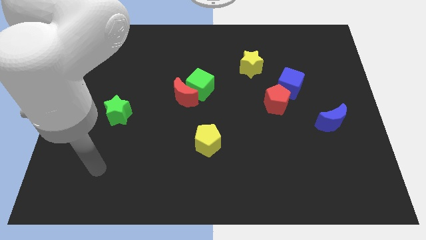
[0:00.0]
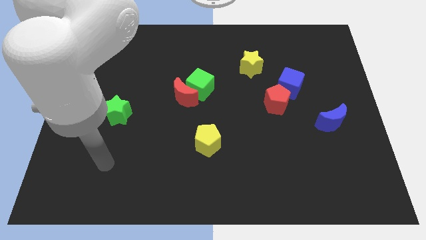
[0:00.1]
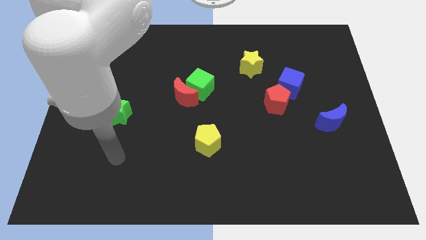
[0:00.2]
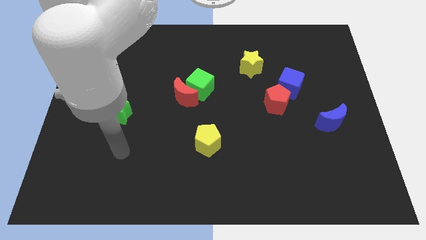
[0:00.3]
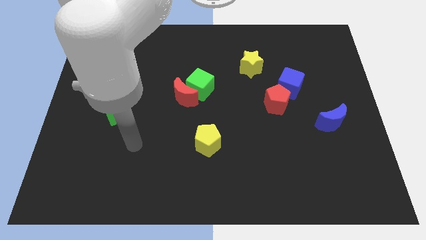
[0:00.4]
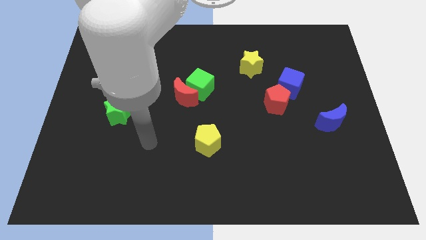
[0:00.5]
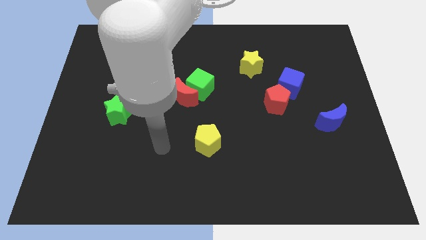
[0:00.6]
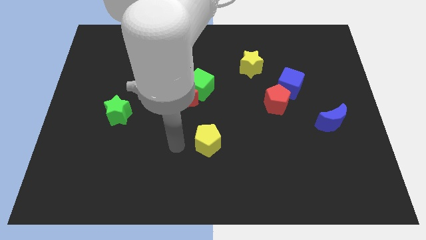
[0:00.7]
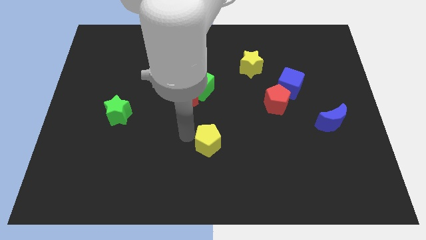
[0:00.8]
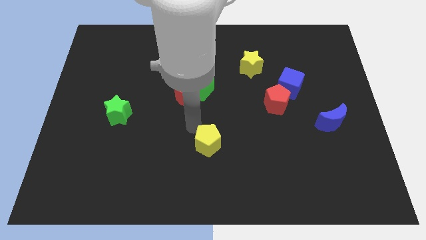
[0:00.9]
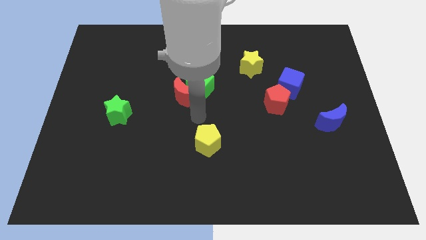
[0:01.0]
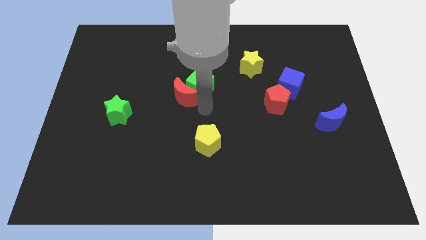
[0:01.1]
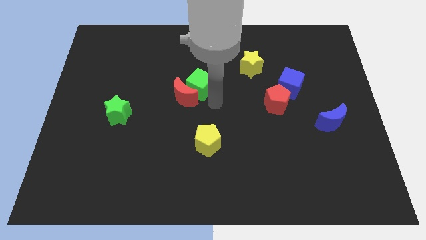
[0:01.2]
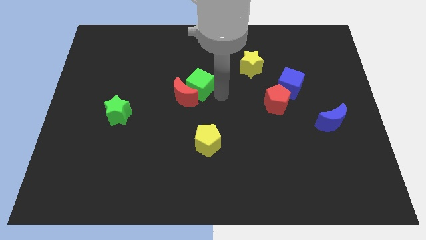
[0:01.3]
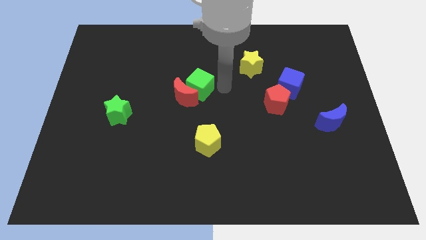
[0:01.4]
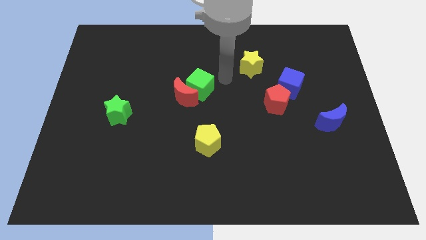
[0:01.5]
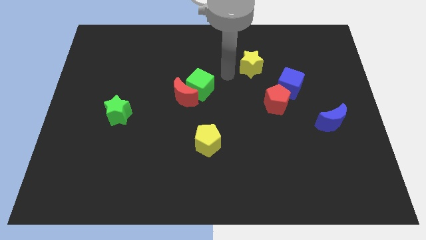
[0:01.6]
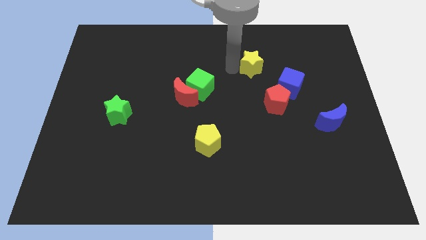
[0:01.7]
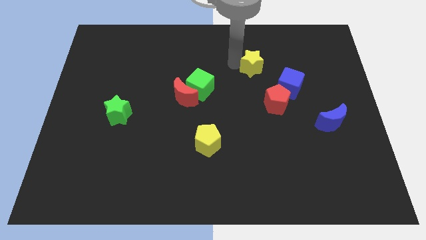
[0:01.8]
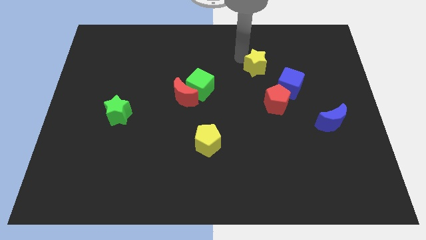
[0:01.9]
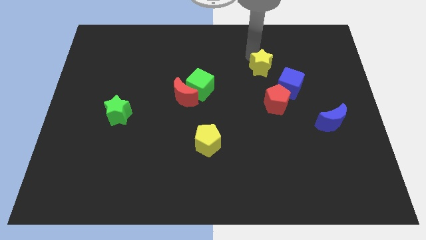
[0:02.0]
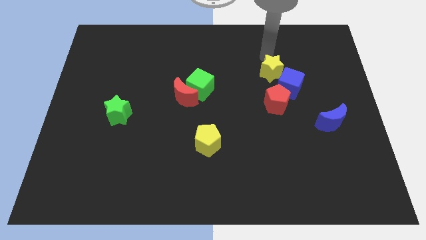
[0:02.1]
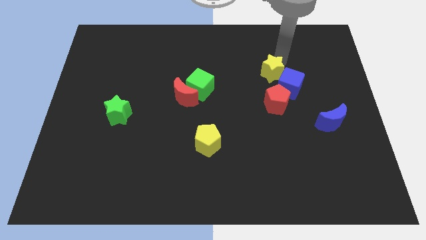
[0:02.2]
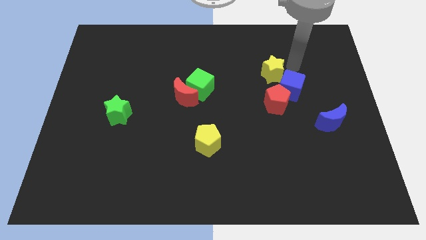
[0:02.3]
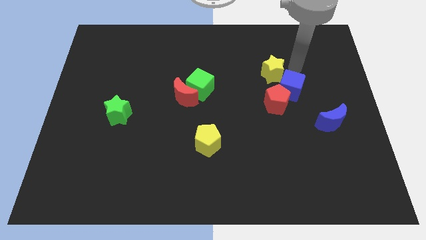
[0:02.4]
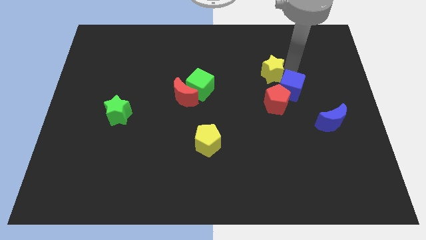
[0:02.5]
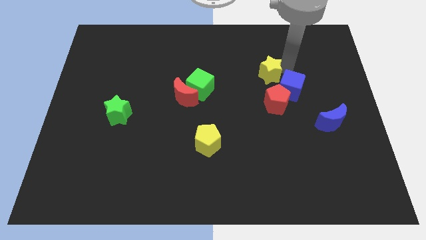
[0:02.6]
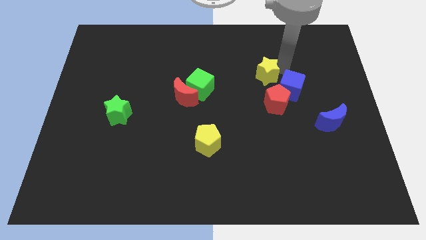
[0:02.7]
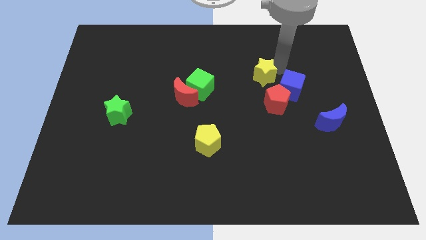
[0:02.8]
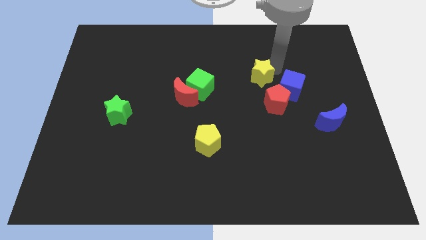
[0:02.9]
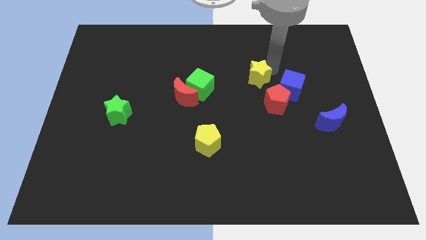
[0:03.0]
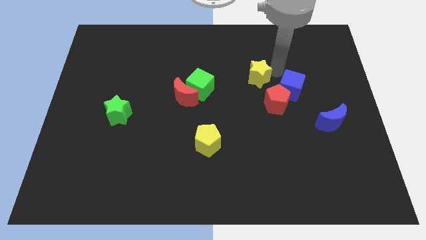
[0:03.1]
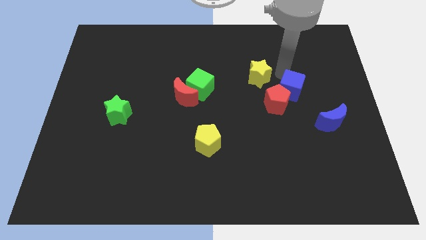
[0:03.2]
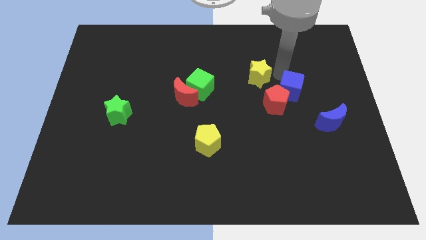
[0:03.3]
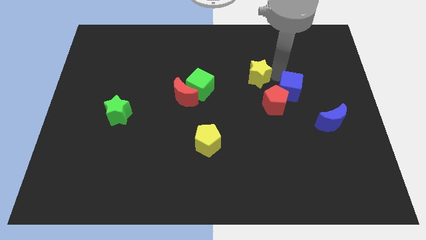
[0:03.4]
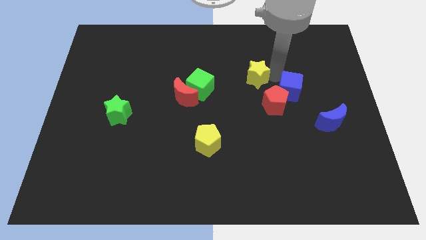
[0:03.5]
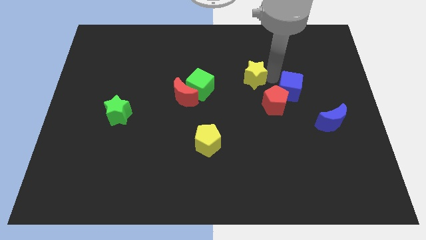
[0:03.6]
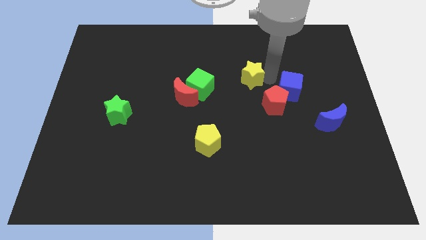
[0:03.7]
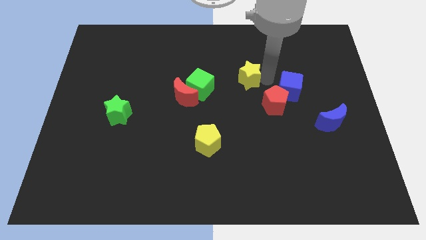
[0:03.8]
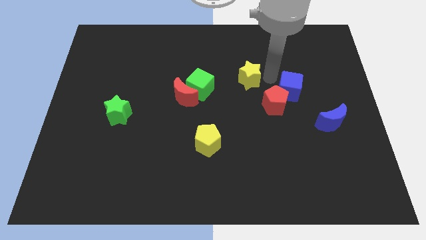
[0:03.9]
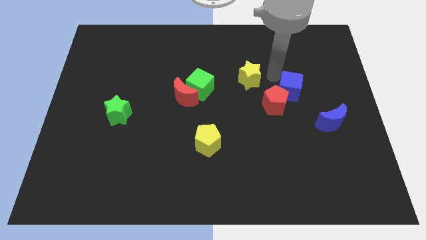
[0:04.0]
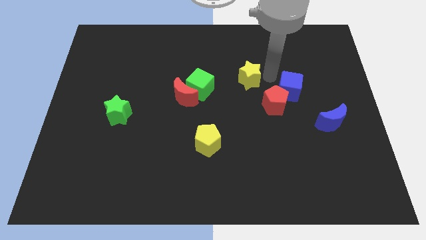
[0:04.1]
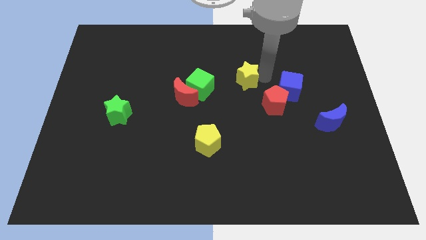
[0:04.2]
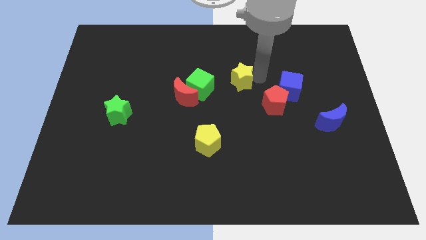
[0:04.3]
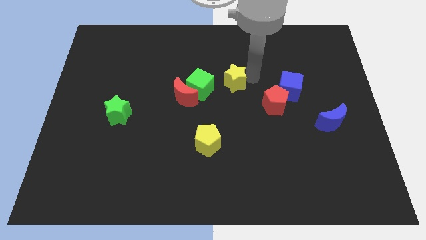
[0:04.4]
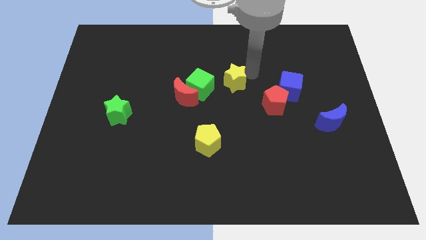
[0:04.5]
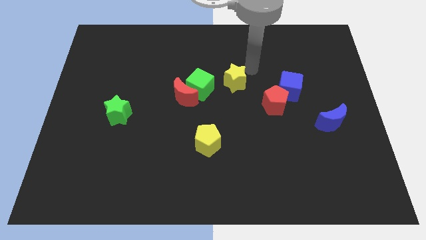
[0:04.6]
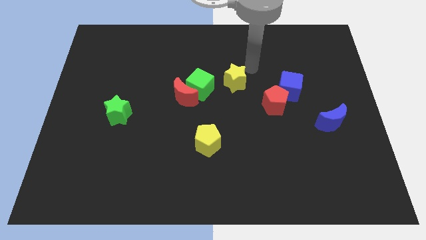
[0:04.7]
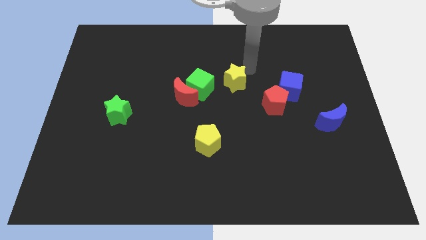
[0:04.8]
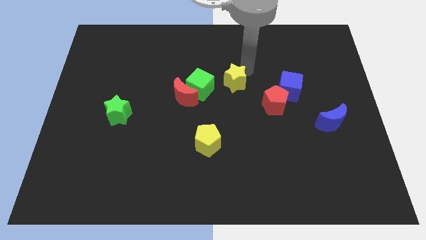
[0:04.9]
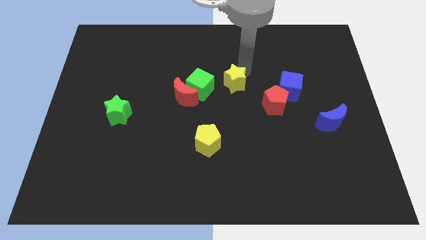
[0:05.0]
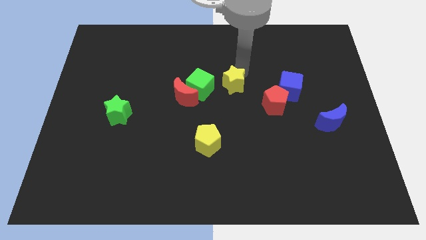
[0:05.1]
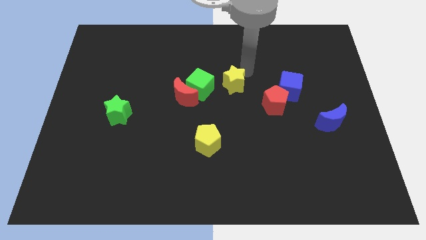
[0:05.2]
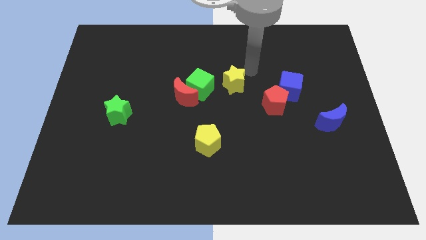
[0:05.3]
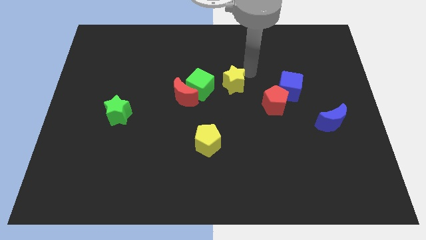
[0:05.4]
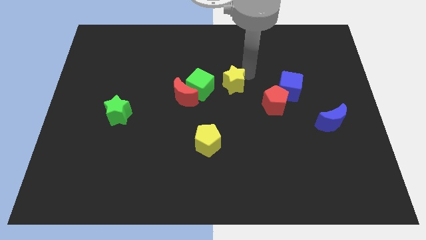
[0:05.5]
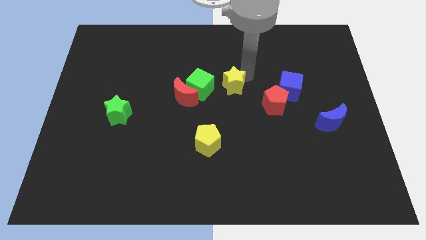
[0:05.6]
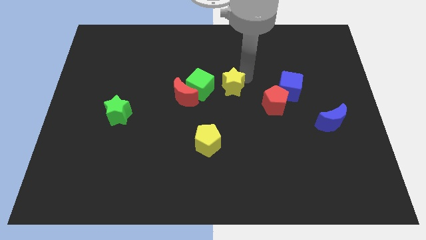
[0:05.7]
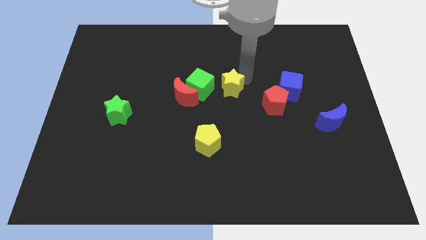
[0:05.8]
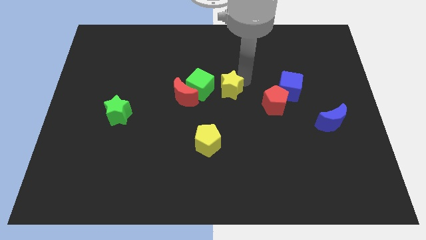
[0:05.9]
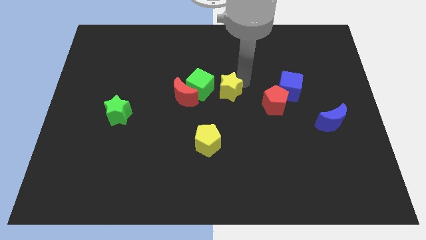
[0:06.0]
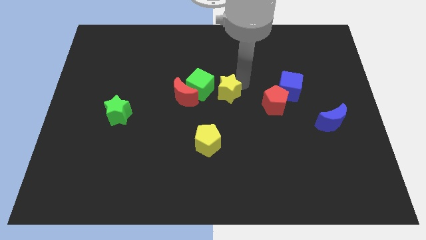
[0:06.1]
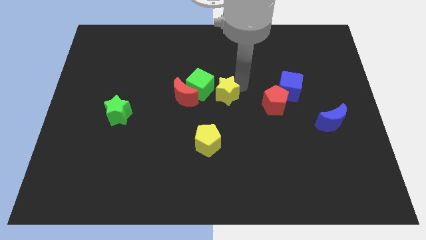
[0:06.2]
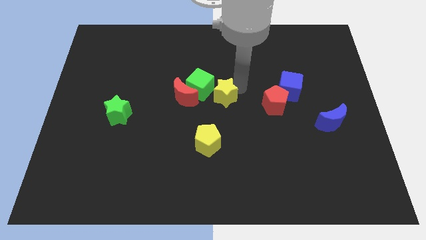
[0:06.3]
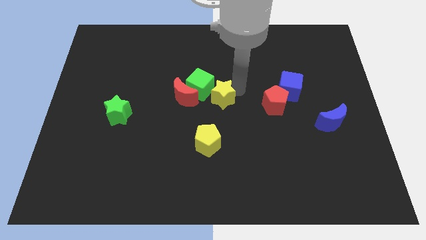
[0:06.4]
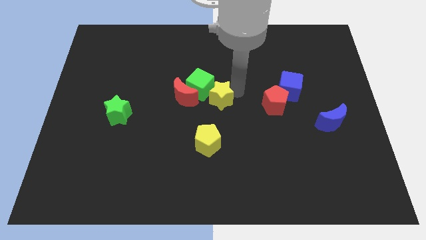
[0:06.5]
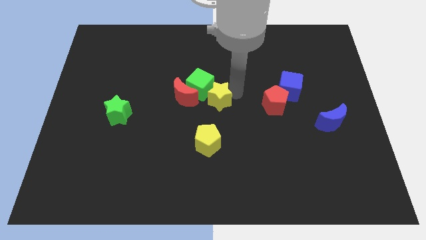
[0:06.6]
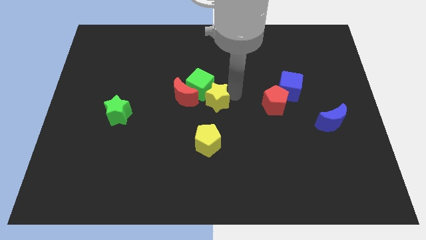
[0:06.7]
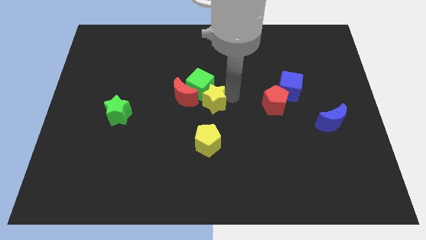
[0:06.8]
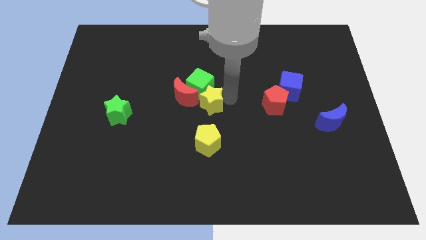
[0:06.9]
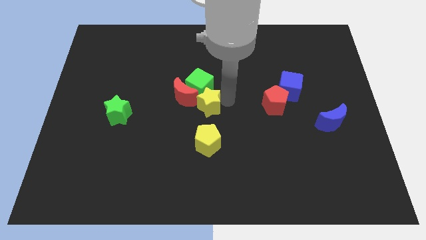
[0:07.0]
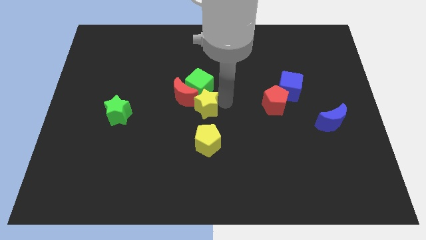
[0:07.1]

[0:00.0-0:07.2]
slide the yellow star close to the red moon
